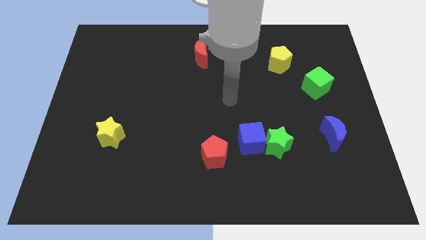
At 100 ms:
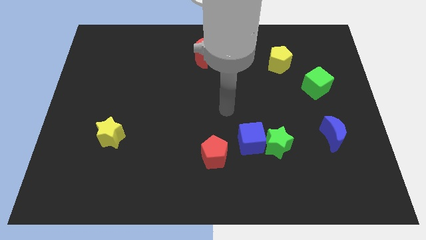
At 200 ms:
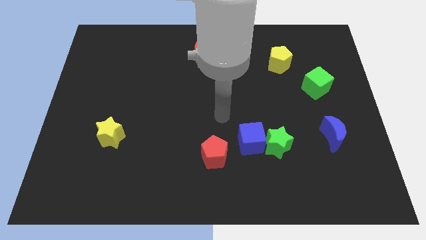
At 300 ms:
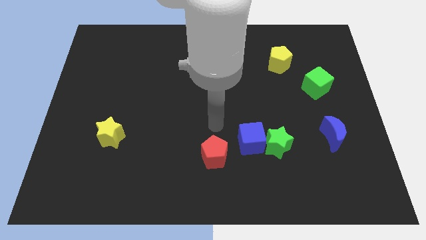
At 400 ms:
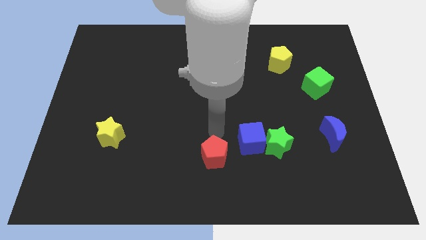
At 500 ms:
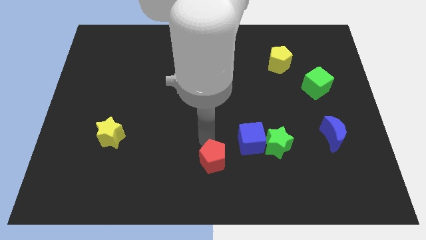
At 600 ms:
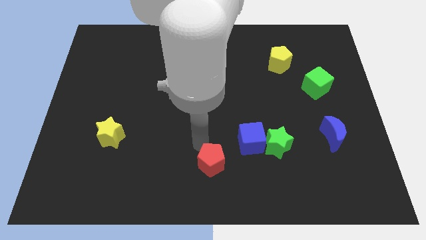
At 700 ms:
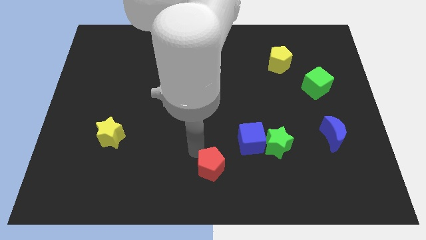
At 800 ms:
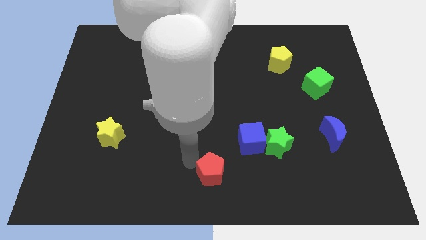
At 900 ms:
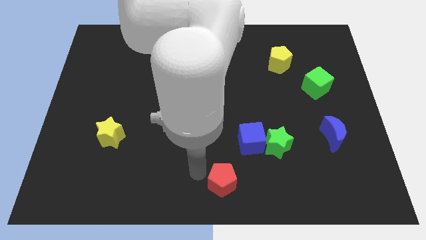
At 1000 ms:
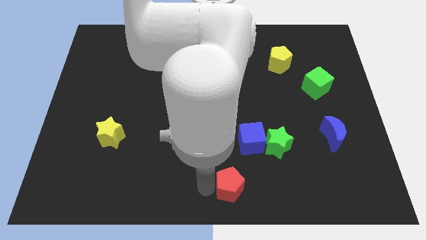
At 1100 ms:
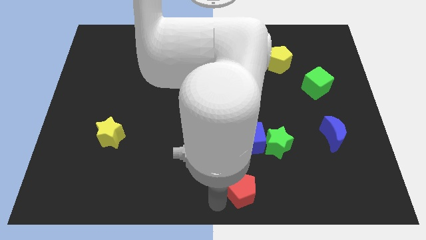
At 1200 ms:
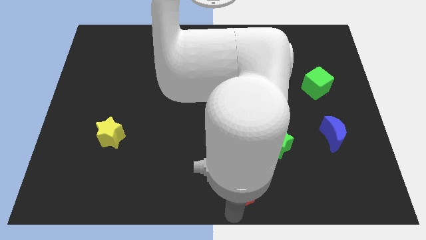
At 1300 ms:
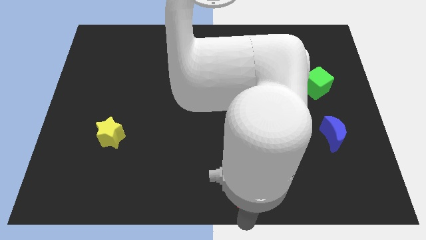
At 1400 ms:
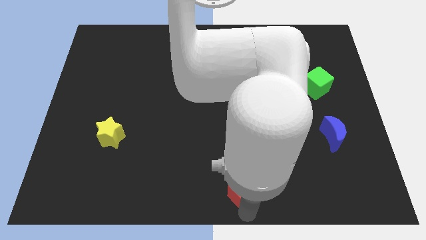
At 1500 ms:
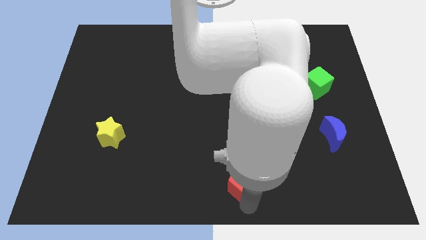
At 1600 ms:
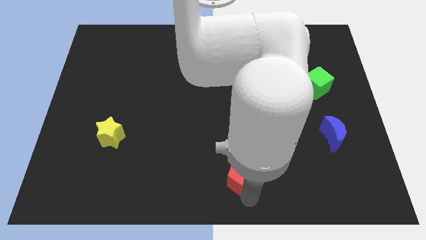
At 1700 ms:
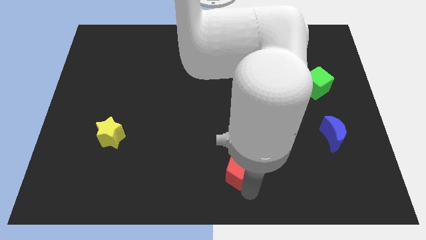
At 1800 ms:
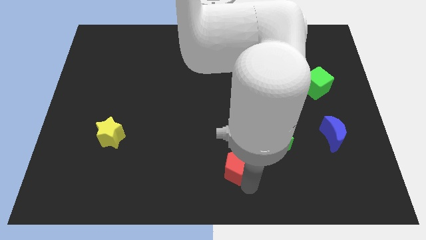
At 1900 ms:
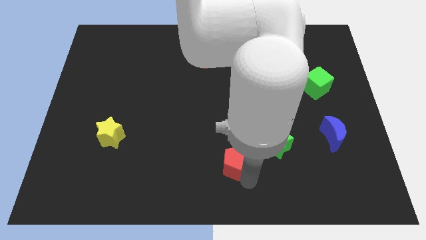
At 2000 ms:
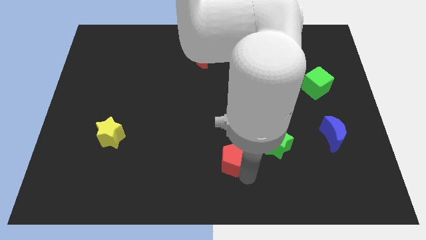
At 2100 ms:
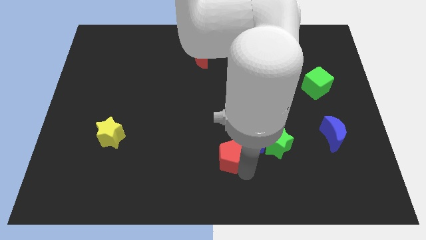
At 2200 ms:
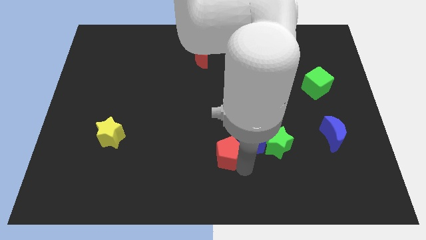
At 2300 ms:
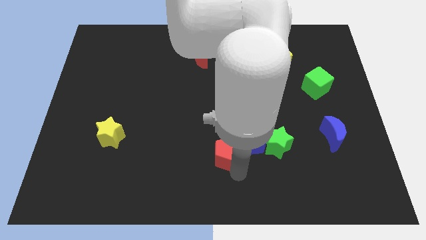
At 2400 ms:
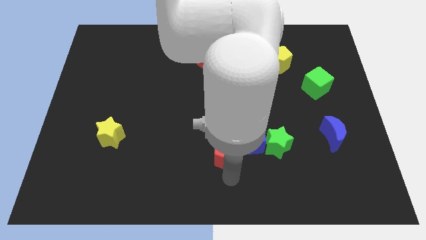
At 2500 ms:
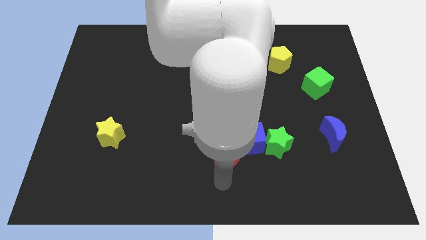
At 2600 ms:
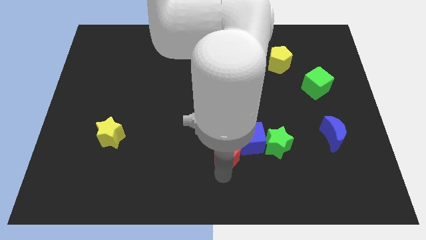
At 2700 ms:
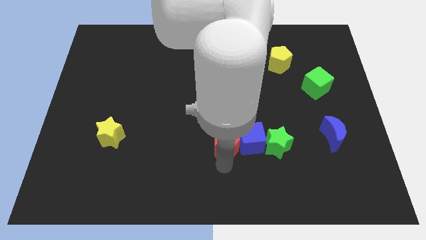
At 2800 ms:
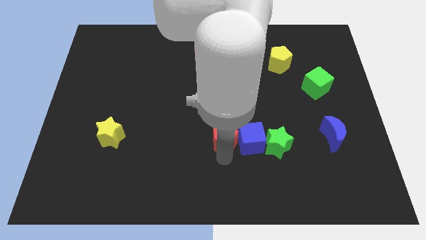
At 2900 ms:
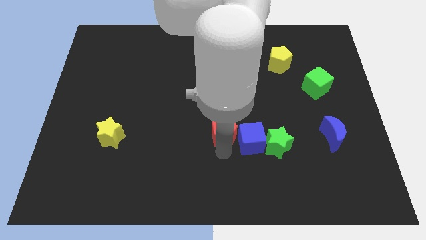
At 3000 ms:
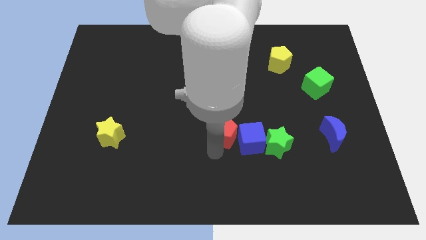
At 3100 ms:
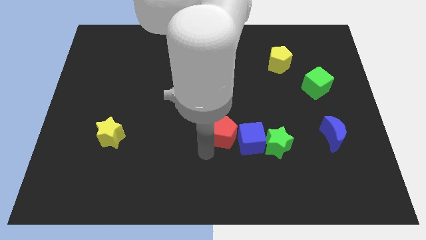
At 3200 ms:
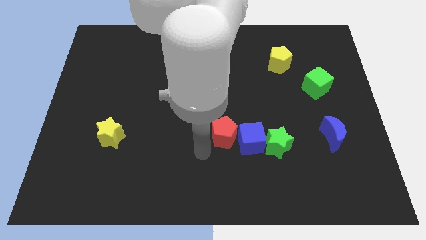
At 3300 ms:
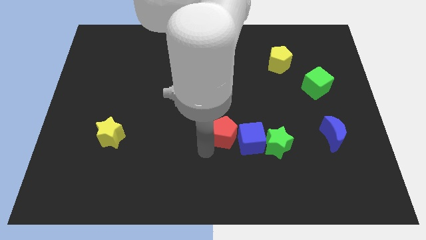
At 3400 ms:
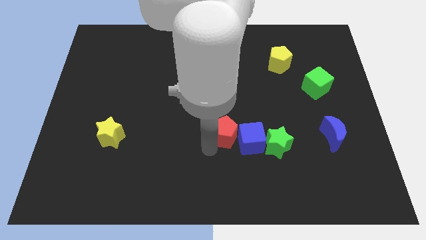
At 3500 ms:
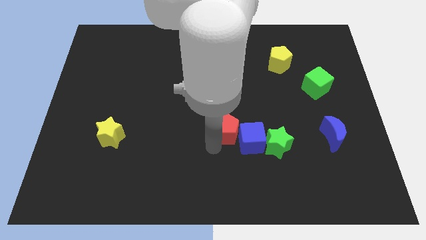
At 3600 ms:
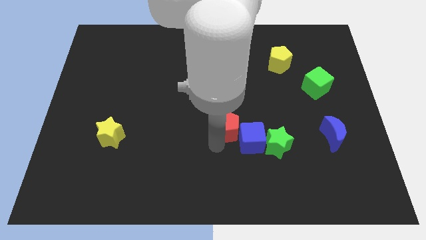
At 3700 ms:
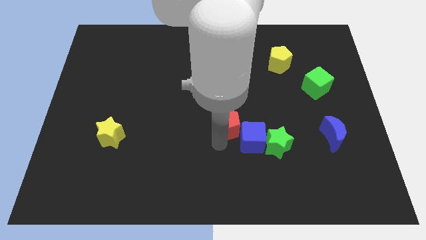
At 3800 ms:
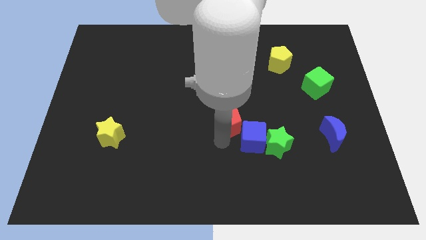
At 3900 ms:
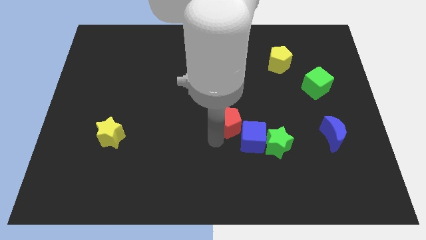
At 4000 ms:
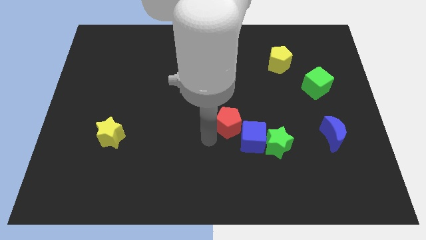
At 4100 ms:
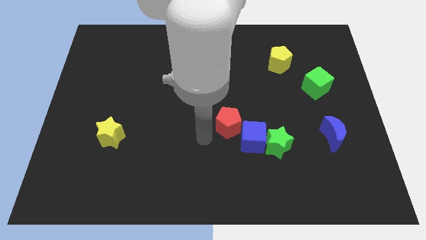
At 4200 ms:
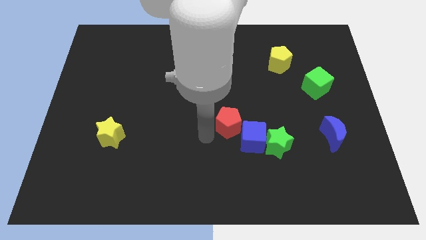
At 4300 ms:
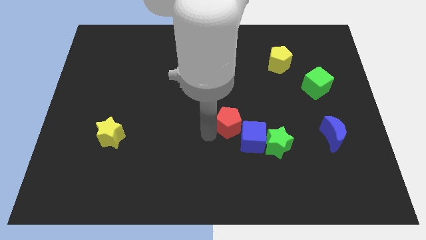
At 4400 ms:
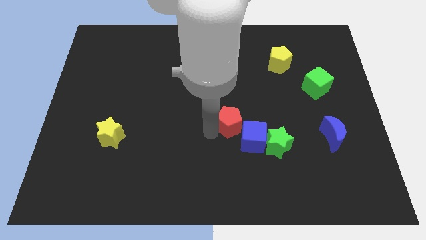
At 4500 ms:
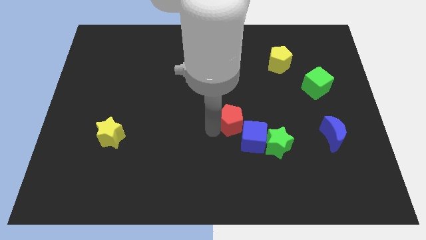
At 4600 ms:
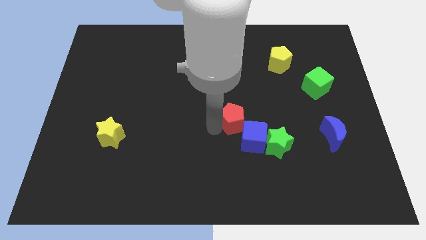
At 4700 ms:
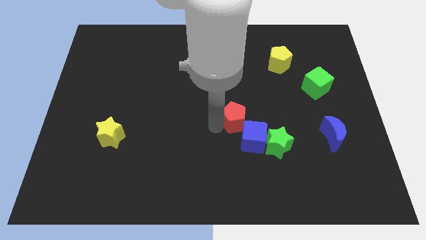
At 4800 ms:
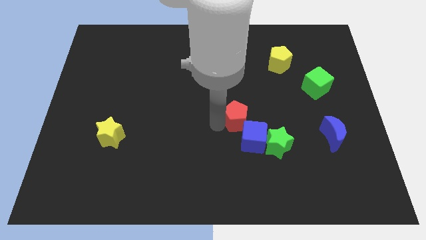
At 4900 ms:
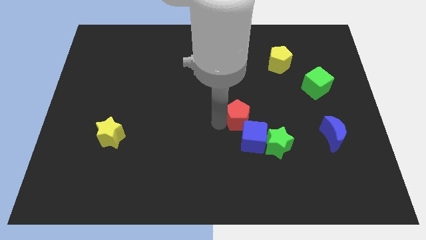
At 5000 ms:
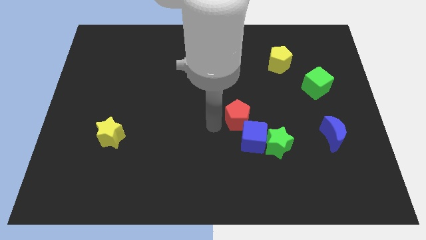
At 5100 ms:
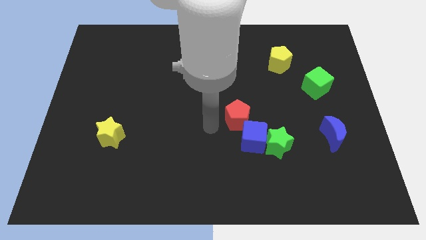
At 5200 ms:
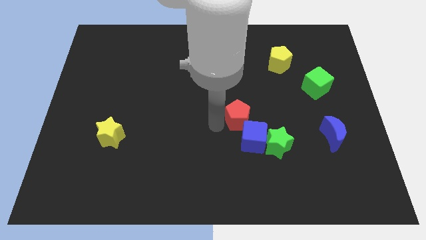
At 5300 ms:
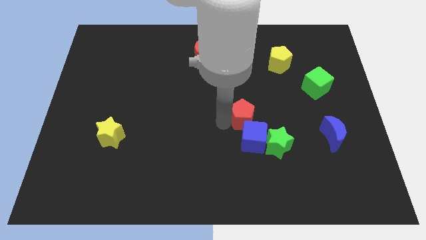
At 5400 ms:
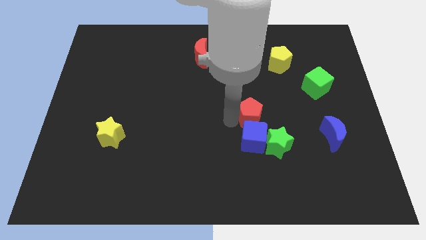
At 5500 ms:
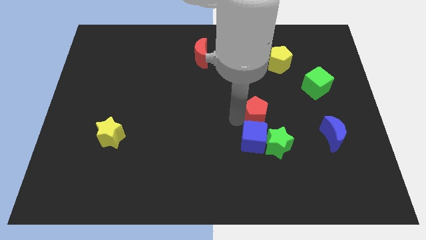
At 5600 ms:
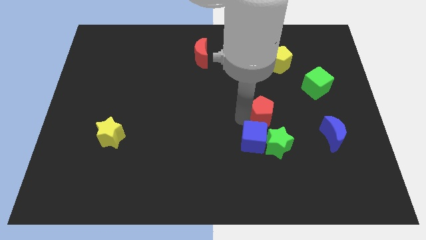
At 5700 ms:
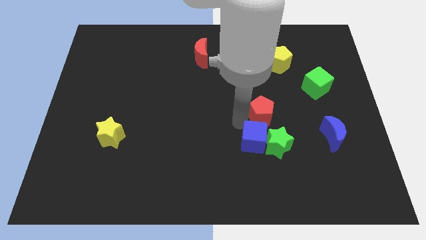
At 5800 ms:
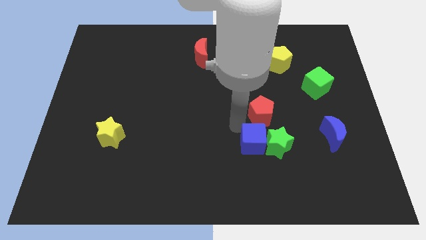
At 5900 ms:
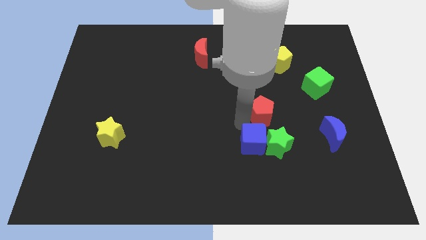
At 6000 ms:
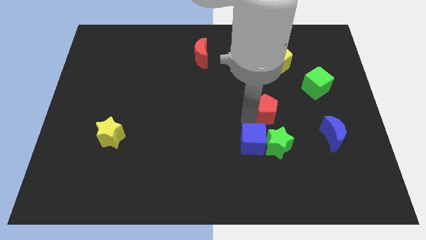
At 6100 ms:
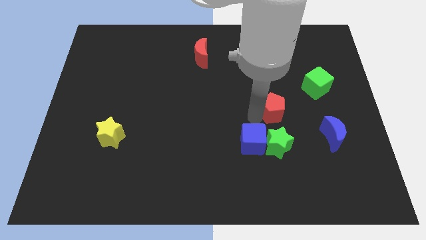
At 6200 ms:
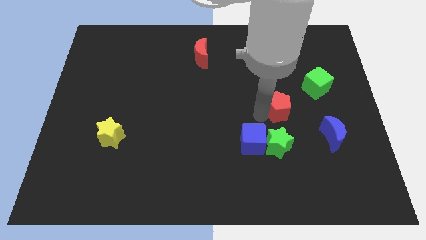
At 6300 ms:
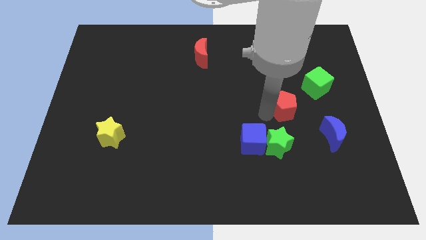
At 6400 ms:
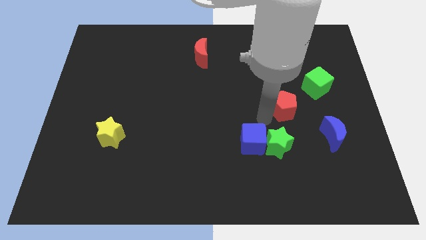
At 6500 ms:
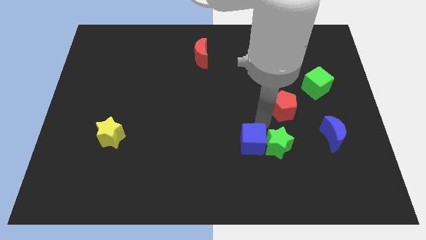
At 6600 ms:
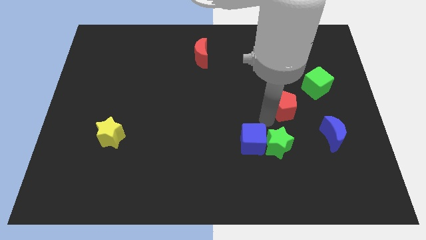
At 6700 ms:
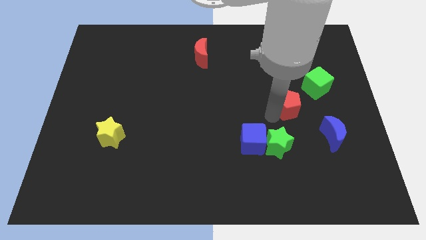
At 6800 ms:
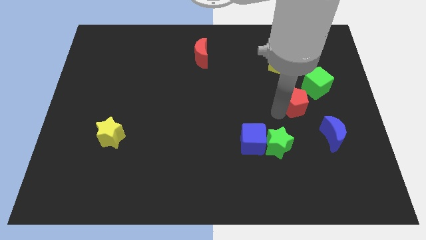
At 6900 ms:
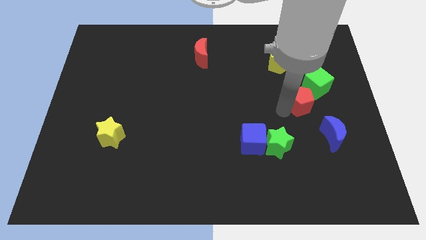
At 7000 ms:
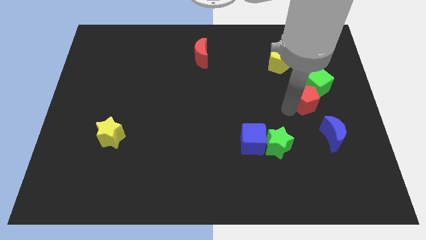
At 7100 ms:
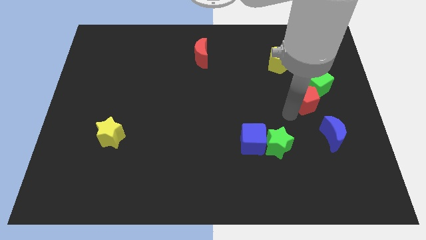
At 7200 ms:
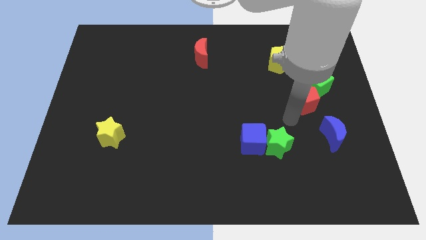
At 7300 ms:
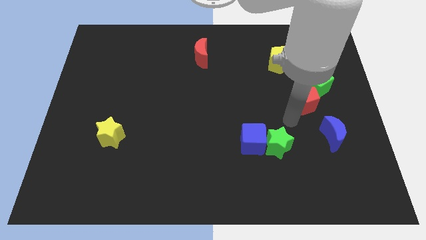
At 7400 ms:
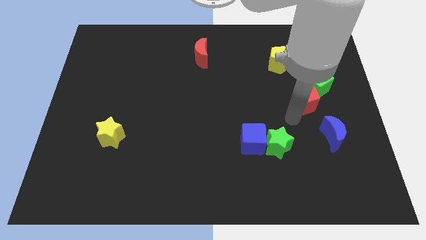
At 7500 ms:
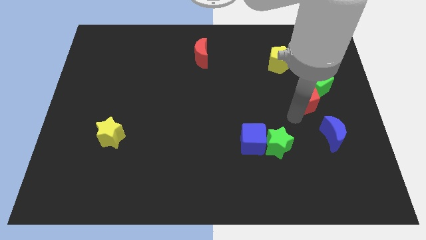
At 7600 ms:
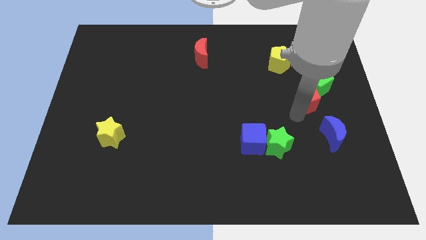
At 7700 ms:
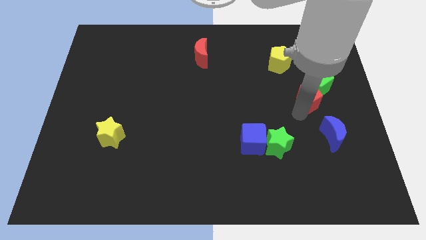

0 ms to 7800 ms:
put the red pentagon to the green cube
